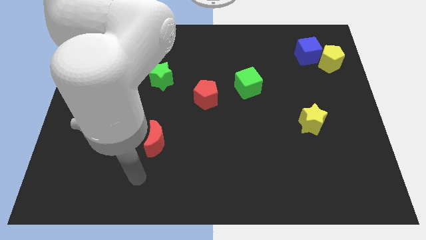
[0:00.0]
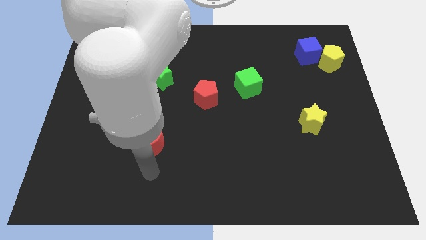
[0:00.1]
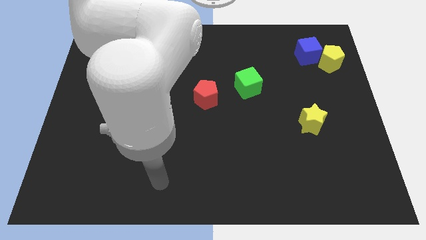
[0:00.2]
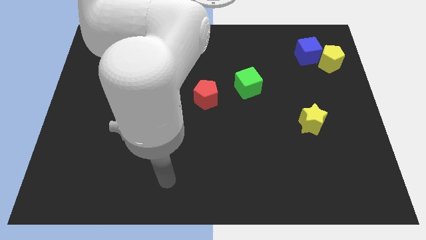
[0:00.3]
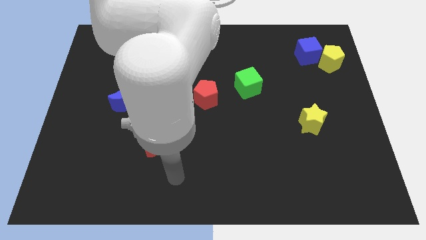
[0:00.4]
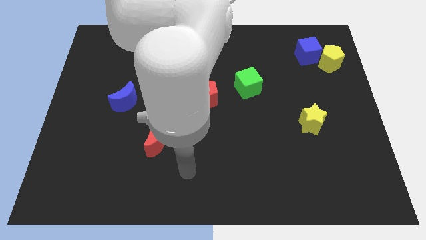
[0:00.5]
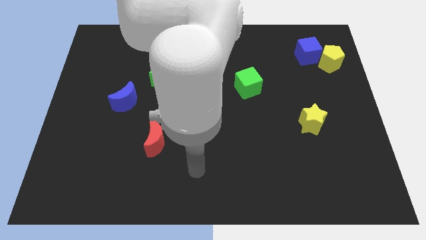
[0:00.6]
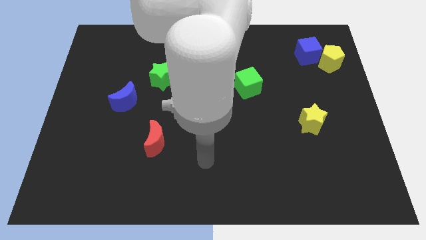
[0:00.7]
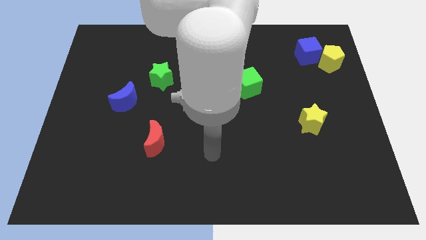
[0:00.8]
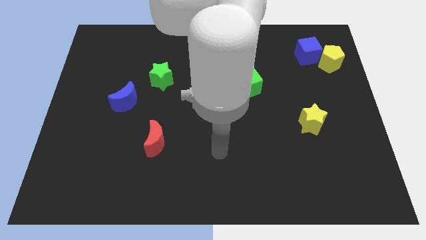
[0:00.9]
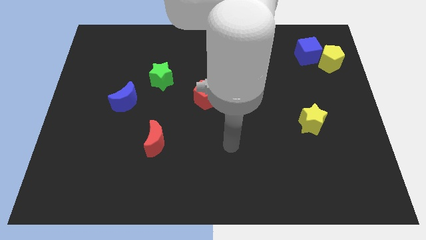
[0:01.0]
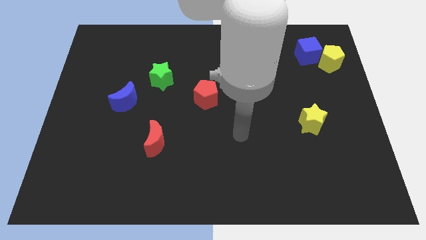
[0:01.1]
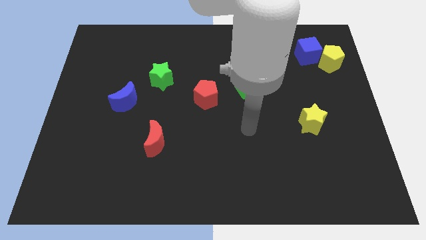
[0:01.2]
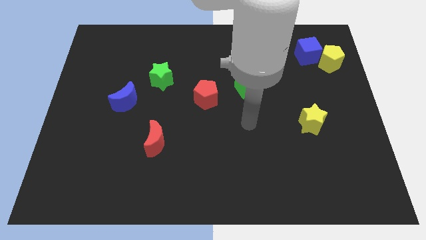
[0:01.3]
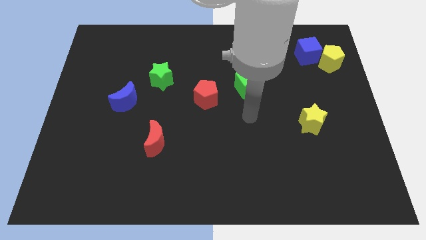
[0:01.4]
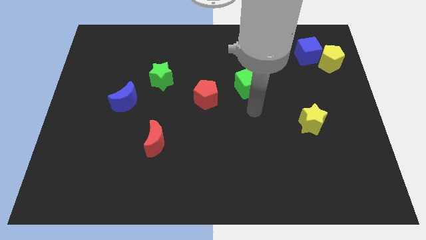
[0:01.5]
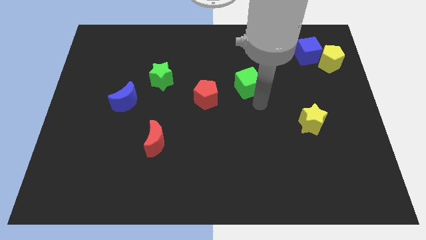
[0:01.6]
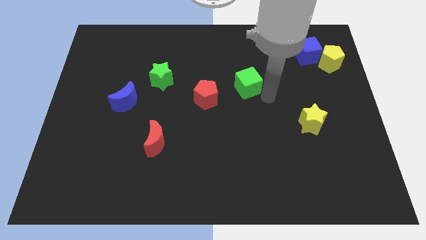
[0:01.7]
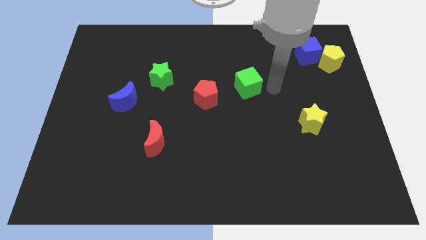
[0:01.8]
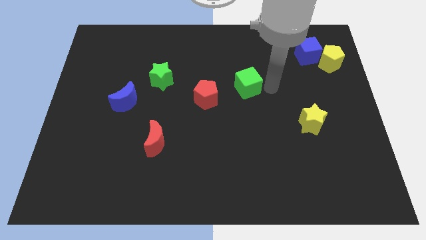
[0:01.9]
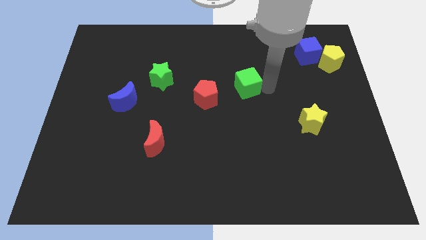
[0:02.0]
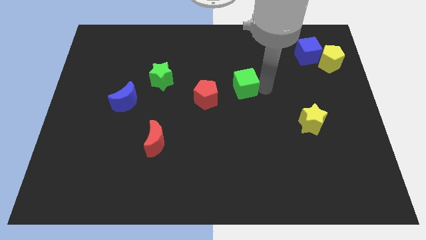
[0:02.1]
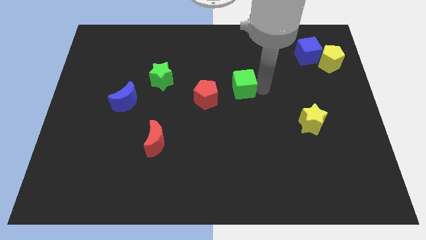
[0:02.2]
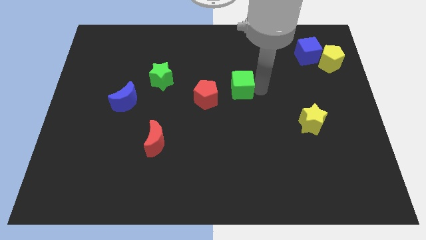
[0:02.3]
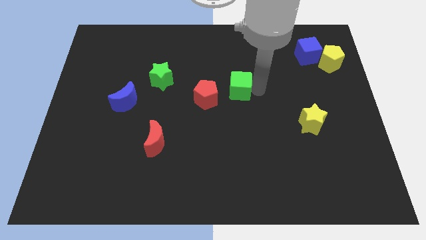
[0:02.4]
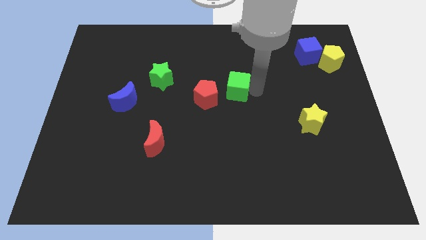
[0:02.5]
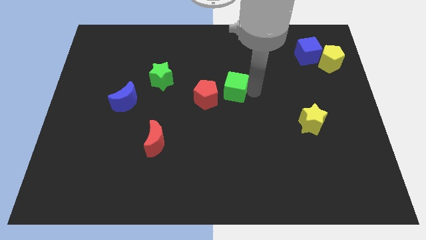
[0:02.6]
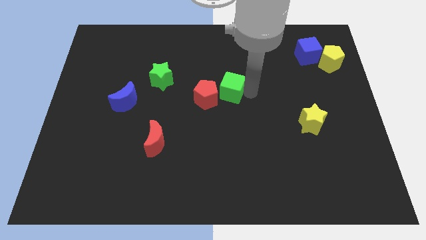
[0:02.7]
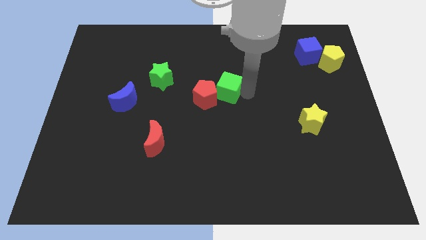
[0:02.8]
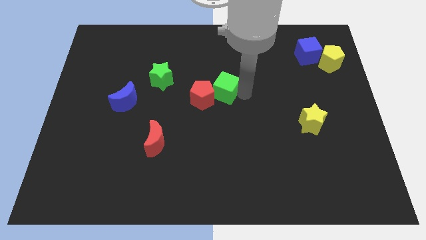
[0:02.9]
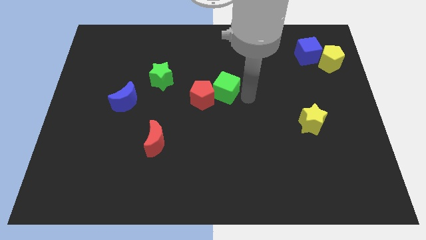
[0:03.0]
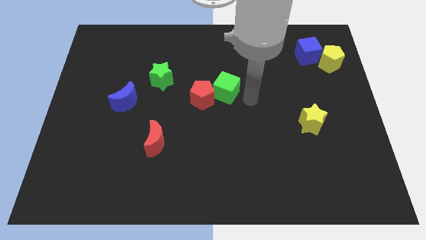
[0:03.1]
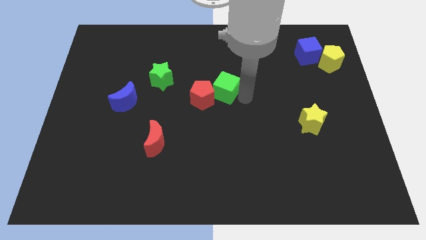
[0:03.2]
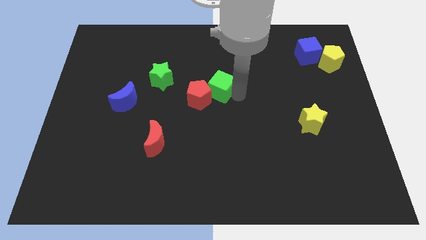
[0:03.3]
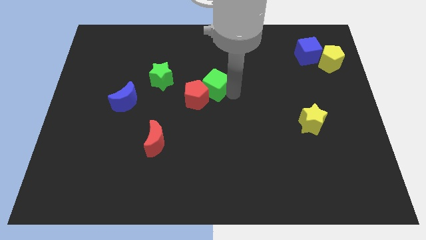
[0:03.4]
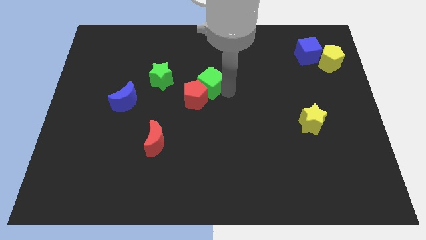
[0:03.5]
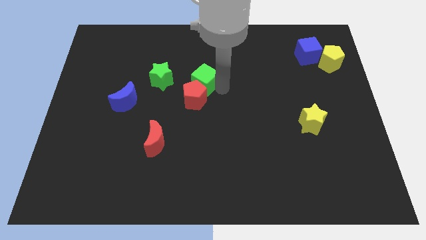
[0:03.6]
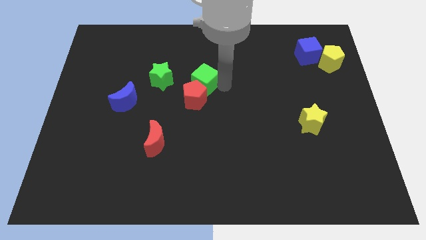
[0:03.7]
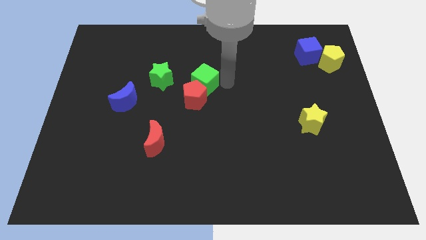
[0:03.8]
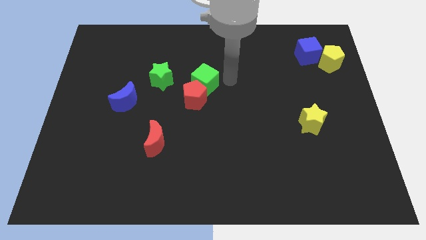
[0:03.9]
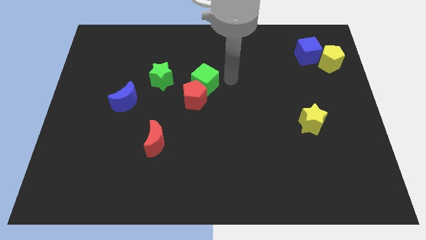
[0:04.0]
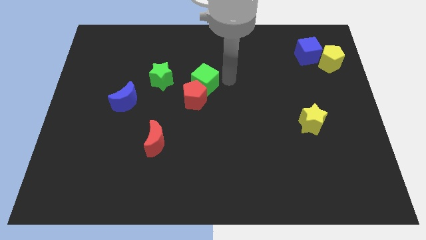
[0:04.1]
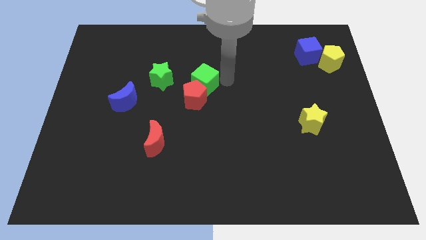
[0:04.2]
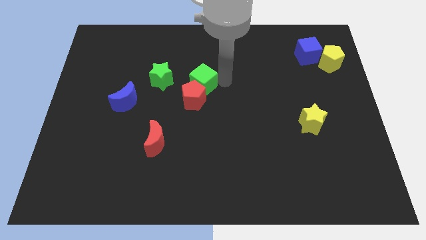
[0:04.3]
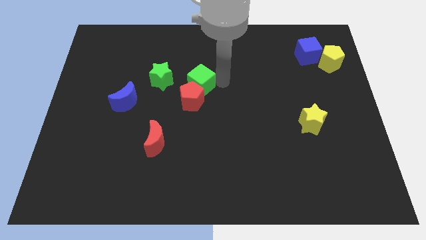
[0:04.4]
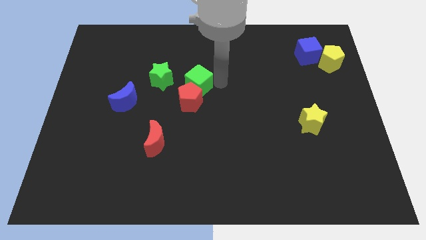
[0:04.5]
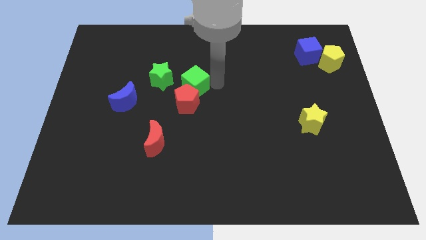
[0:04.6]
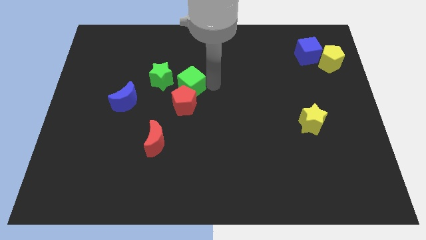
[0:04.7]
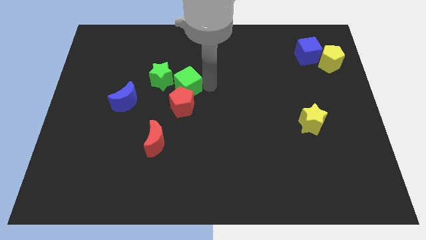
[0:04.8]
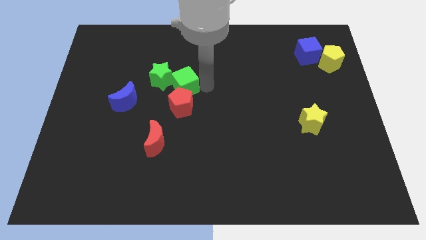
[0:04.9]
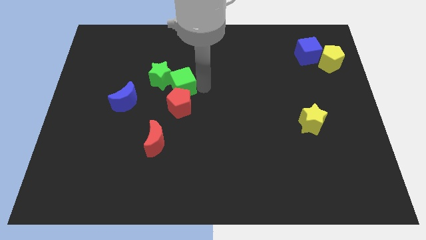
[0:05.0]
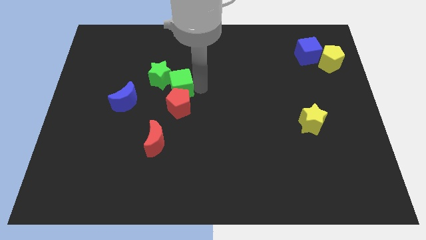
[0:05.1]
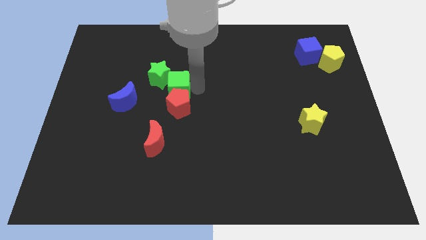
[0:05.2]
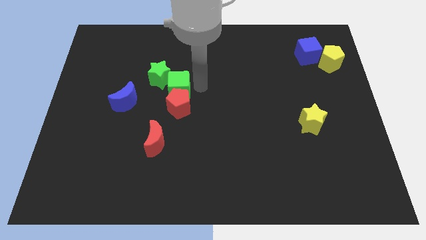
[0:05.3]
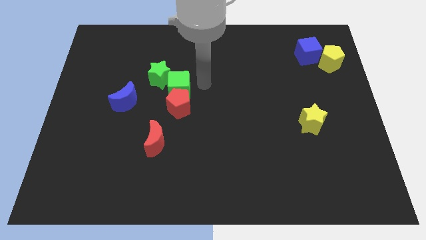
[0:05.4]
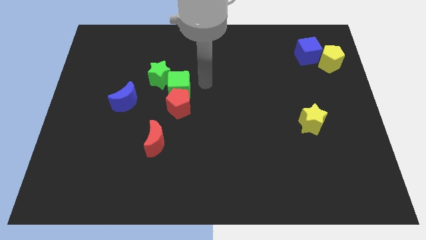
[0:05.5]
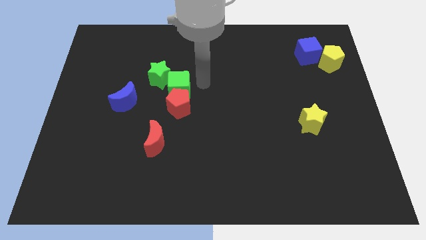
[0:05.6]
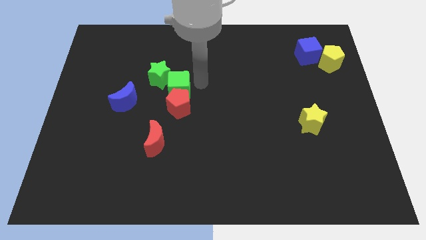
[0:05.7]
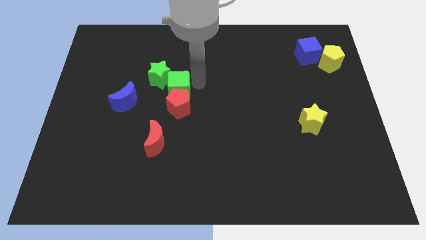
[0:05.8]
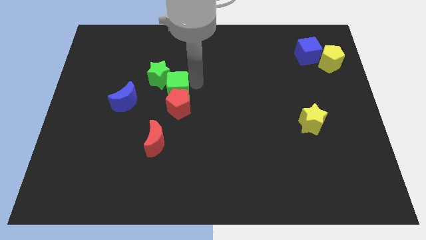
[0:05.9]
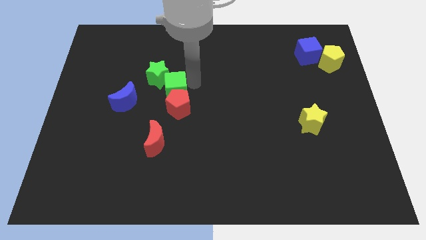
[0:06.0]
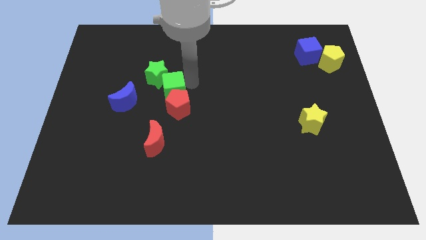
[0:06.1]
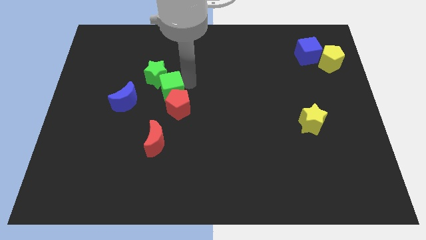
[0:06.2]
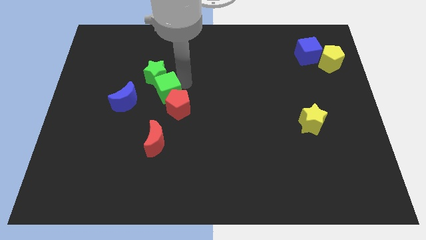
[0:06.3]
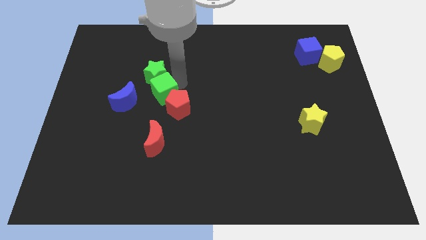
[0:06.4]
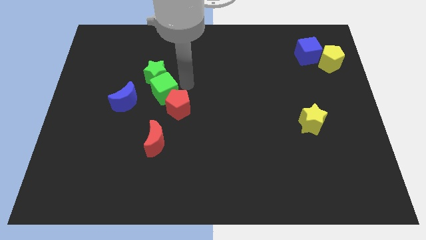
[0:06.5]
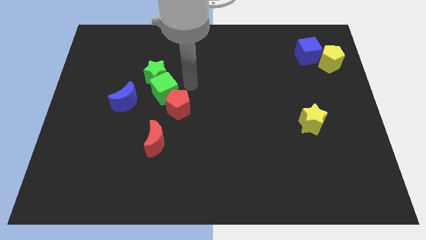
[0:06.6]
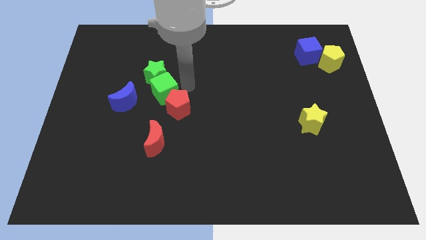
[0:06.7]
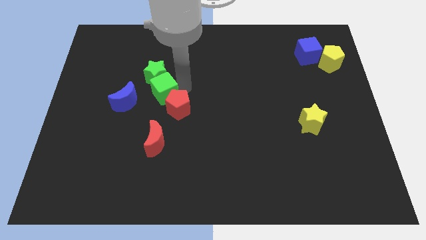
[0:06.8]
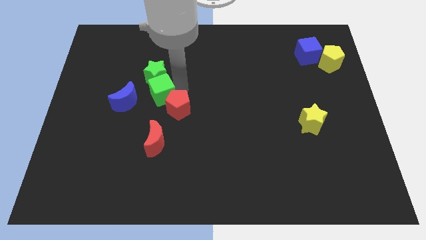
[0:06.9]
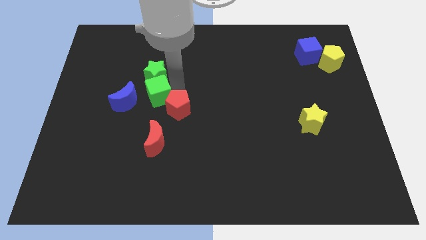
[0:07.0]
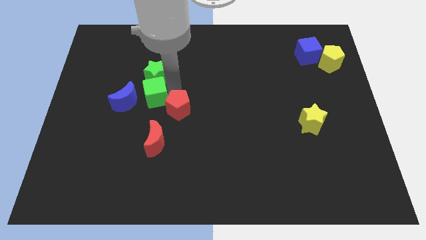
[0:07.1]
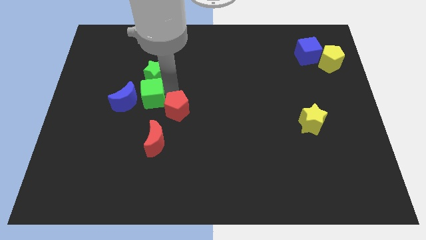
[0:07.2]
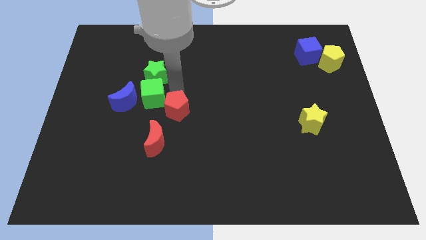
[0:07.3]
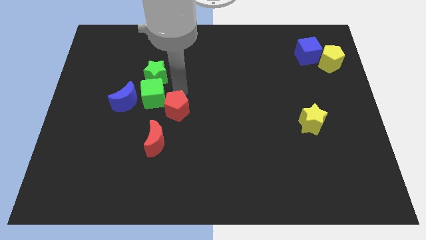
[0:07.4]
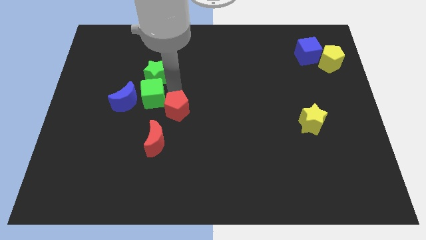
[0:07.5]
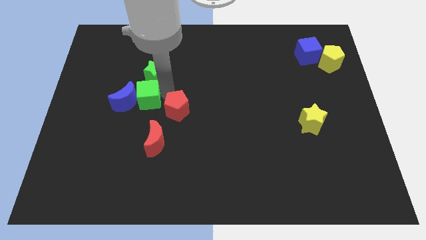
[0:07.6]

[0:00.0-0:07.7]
put the green cube towards the blue moon
